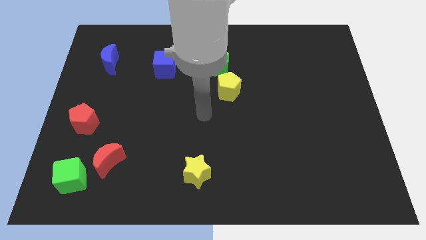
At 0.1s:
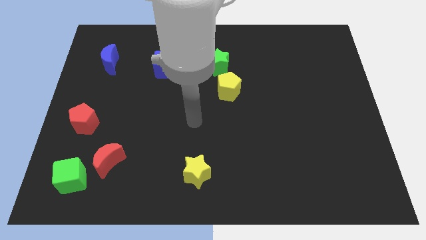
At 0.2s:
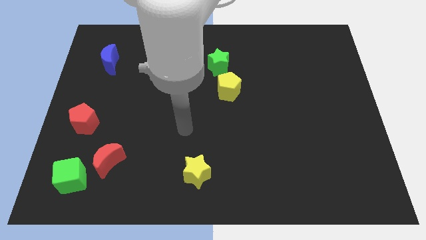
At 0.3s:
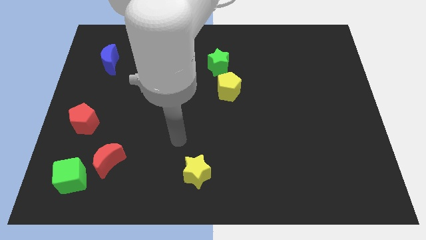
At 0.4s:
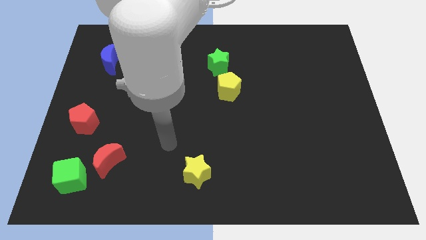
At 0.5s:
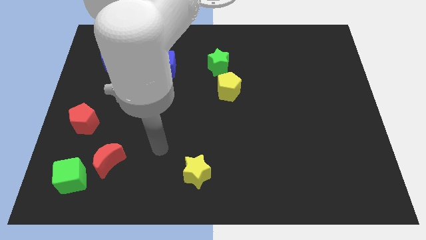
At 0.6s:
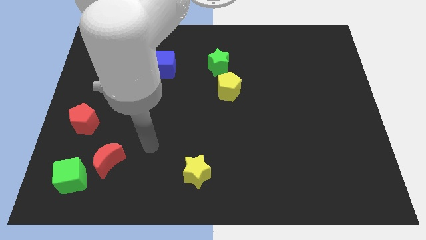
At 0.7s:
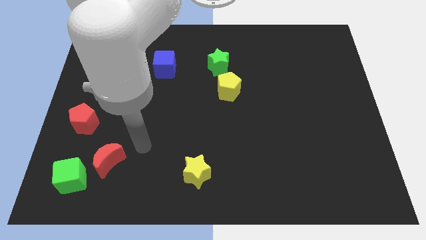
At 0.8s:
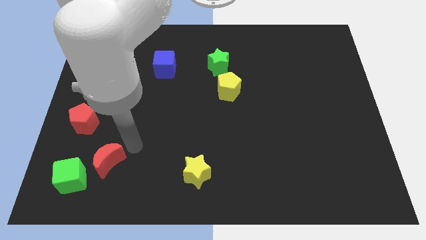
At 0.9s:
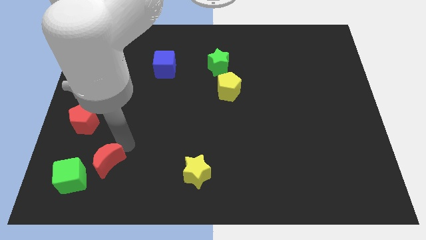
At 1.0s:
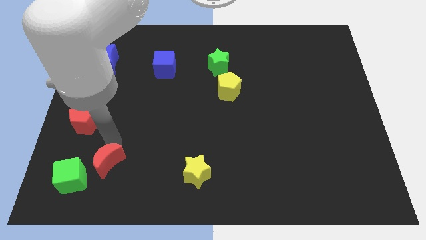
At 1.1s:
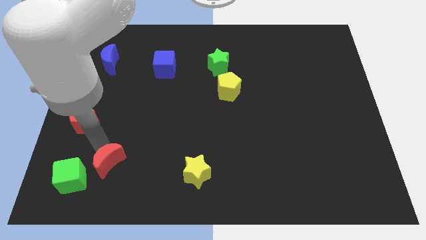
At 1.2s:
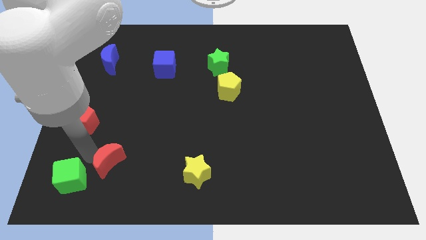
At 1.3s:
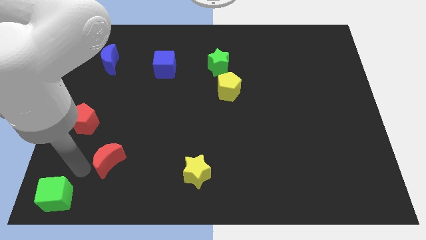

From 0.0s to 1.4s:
move the red moon away from the green cube

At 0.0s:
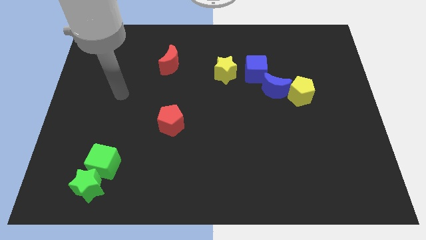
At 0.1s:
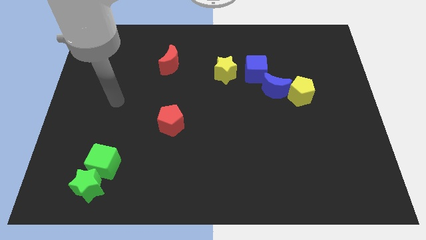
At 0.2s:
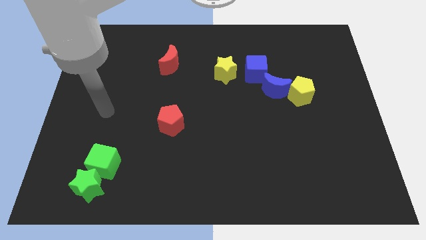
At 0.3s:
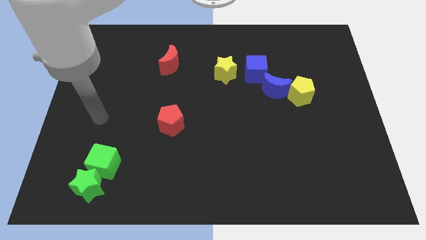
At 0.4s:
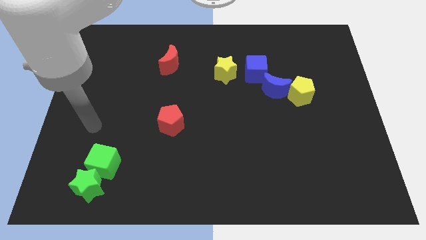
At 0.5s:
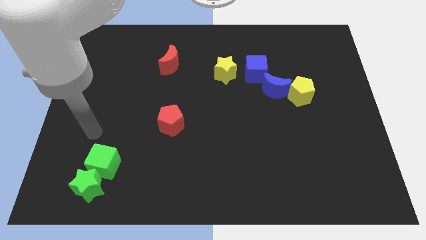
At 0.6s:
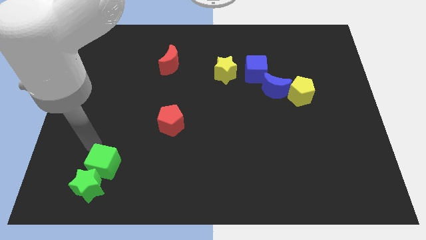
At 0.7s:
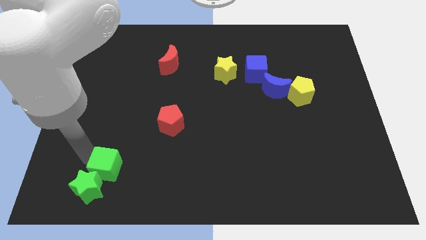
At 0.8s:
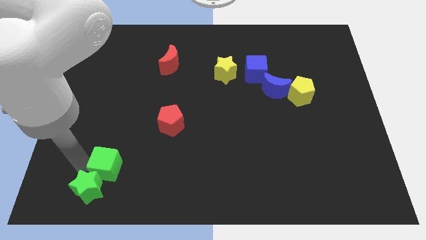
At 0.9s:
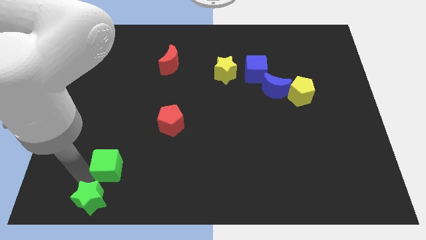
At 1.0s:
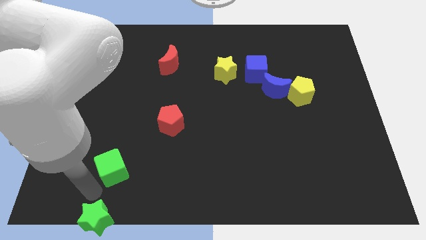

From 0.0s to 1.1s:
pull the green cube apart from the green star

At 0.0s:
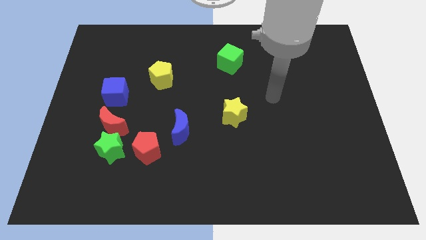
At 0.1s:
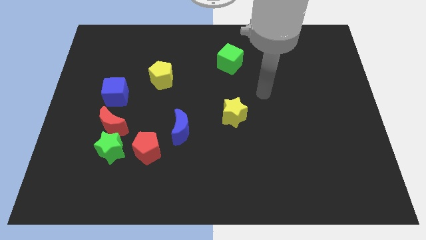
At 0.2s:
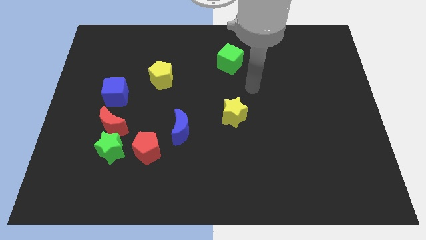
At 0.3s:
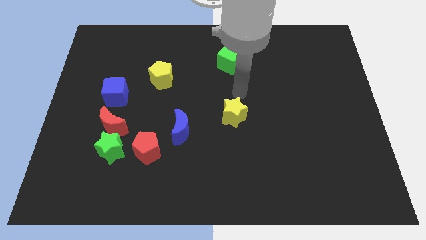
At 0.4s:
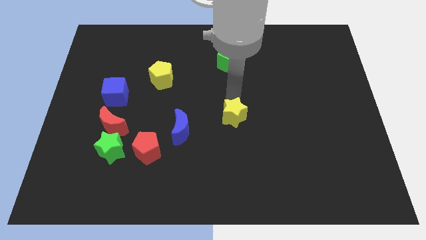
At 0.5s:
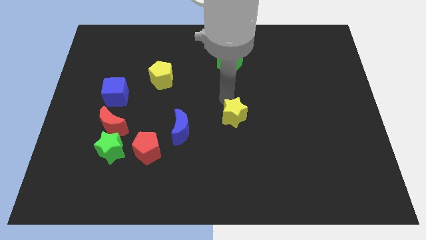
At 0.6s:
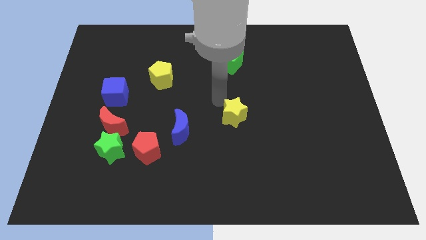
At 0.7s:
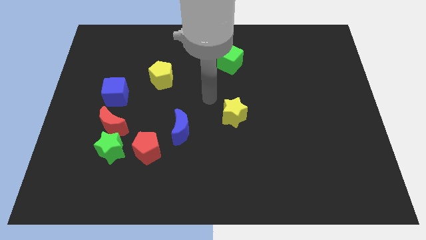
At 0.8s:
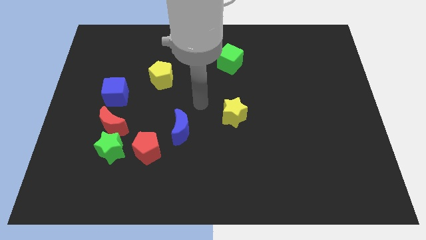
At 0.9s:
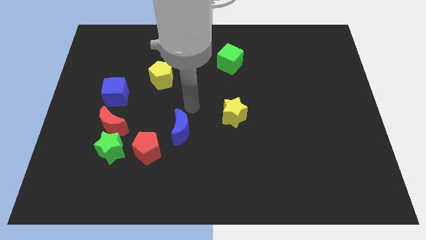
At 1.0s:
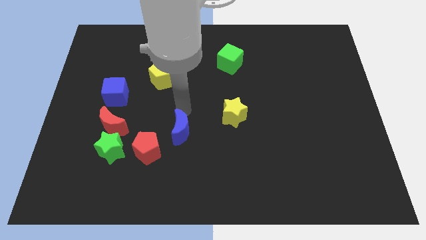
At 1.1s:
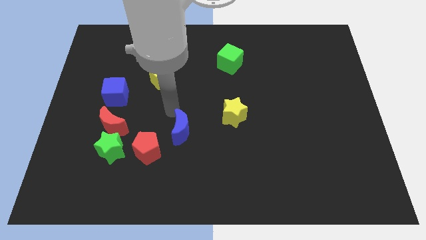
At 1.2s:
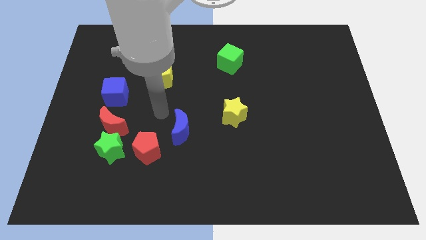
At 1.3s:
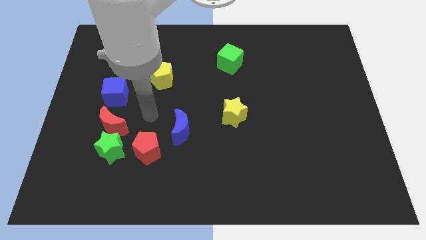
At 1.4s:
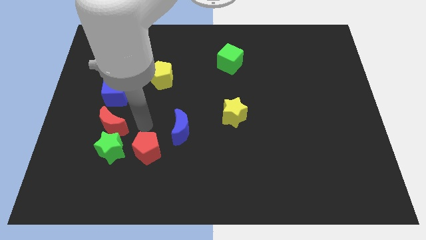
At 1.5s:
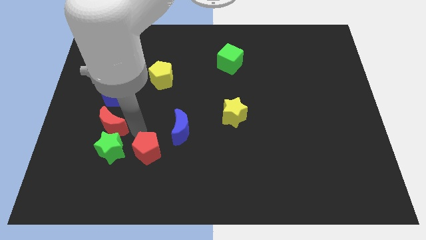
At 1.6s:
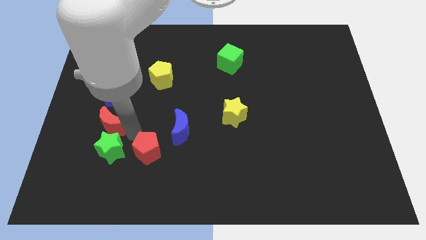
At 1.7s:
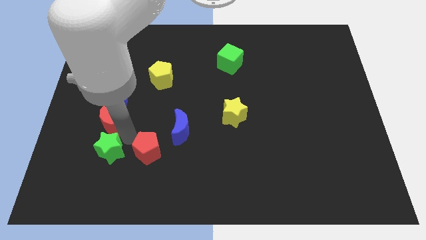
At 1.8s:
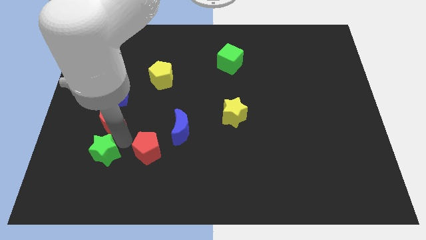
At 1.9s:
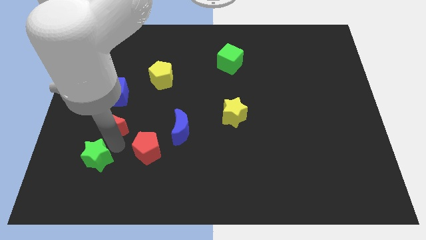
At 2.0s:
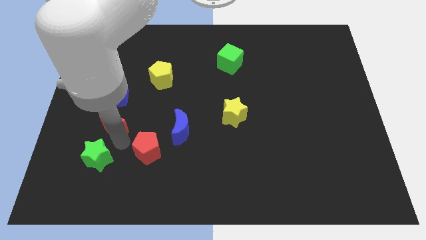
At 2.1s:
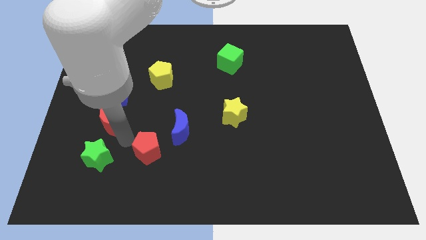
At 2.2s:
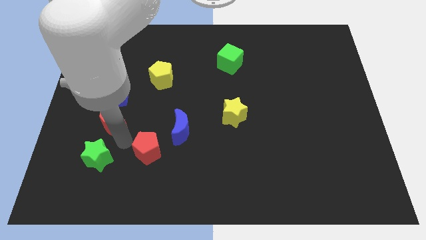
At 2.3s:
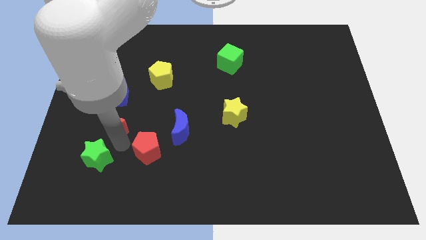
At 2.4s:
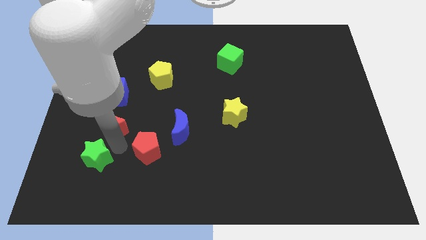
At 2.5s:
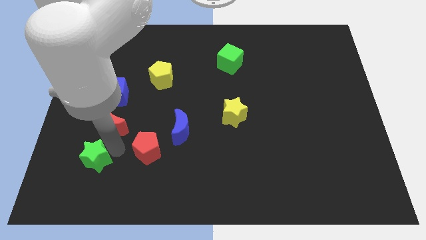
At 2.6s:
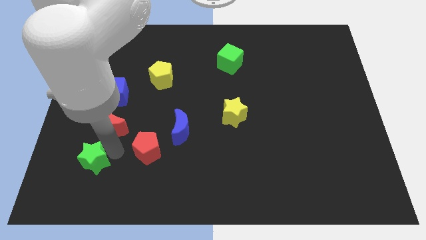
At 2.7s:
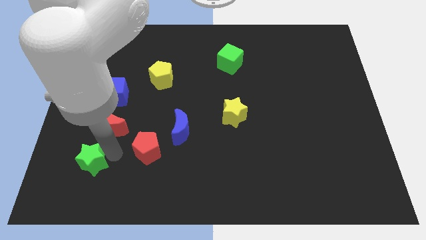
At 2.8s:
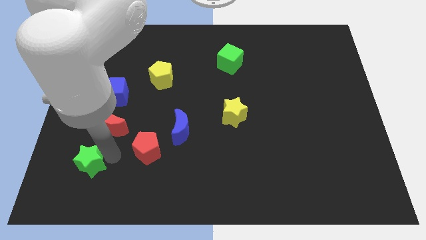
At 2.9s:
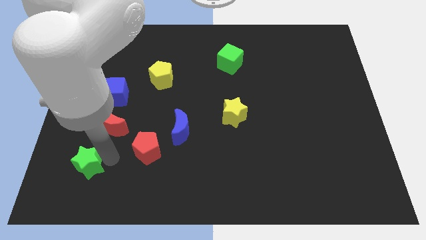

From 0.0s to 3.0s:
pull the green star apart from the red moon and red pentagon

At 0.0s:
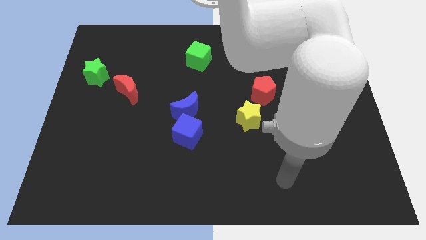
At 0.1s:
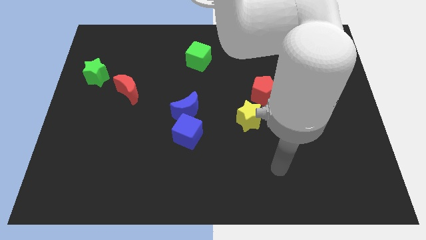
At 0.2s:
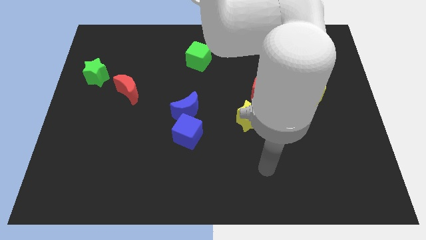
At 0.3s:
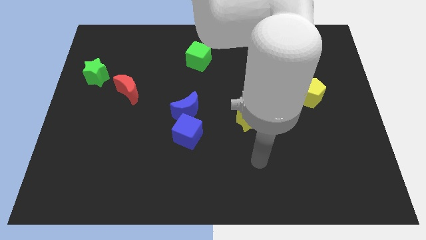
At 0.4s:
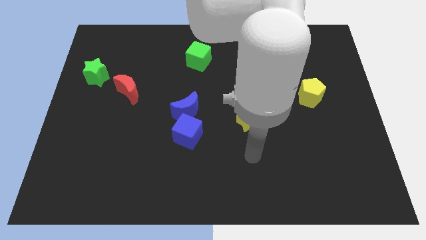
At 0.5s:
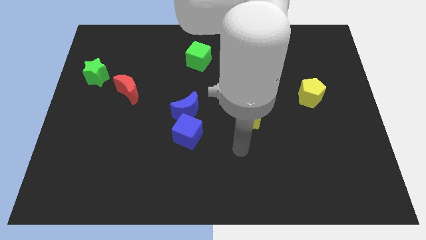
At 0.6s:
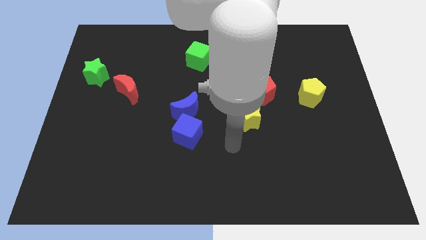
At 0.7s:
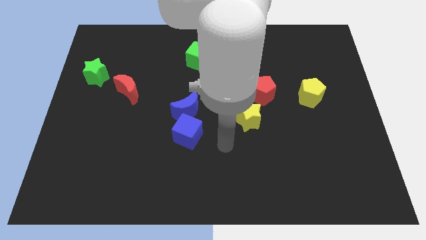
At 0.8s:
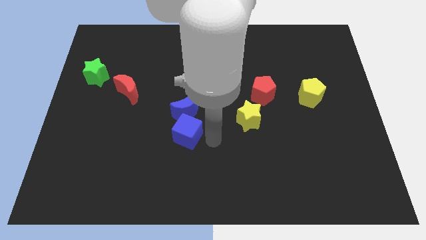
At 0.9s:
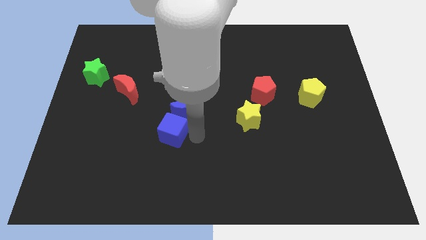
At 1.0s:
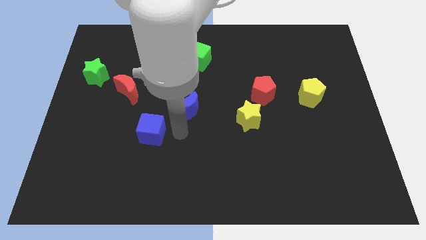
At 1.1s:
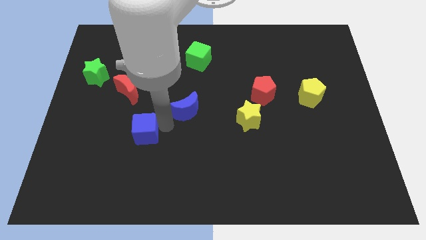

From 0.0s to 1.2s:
move the blue moon away from the blue cube

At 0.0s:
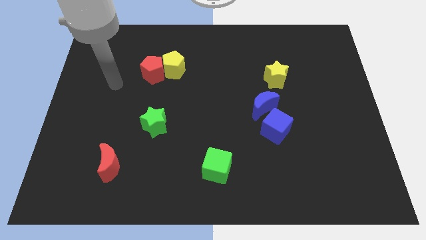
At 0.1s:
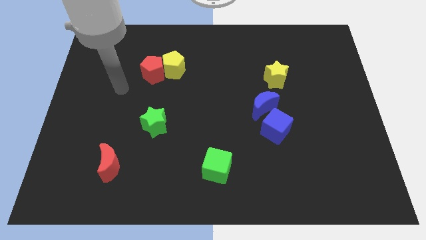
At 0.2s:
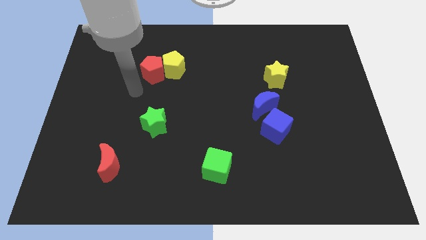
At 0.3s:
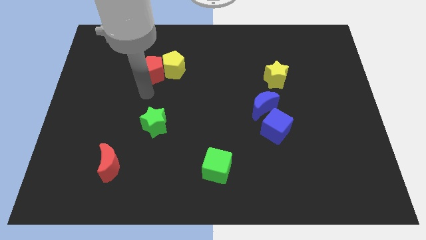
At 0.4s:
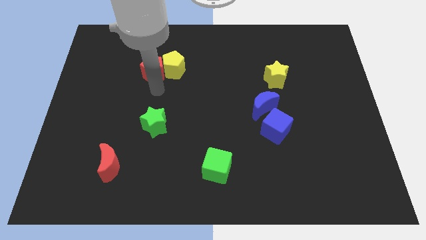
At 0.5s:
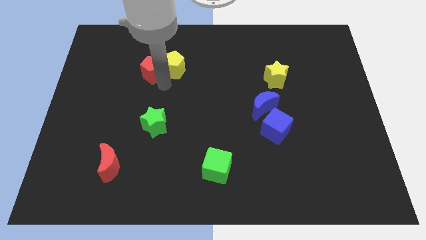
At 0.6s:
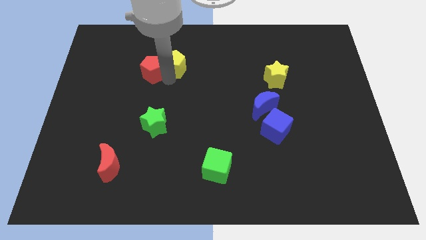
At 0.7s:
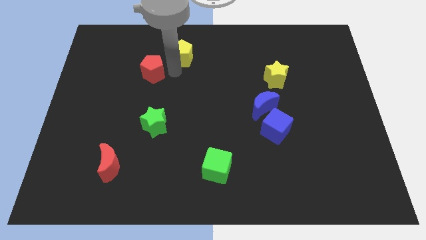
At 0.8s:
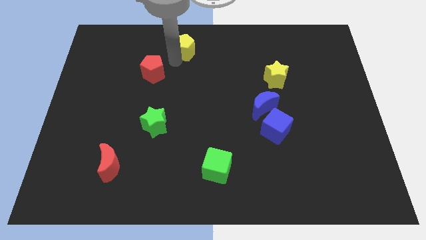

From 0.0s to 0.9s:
pull the red pentagon apart from the yellow pentagon

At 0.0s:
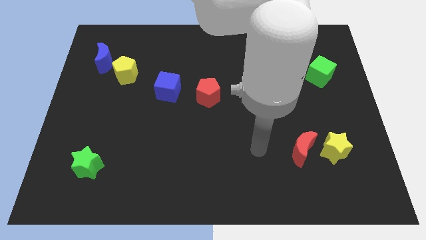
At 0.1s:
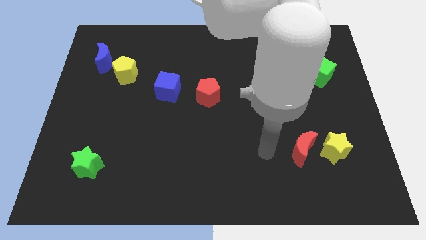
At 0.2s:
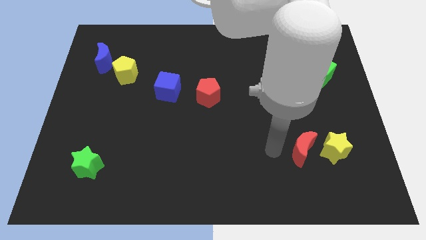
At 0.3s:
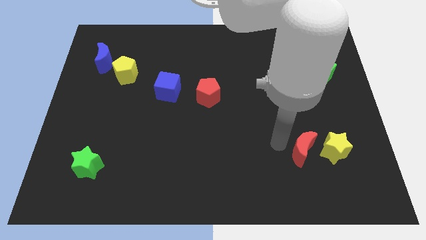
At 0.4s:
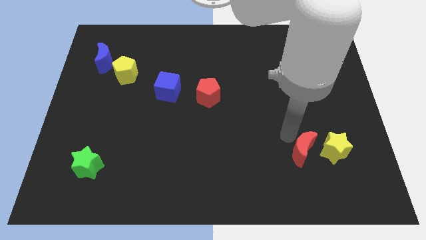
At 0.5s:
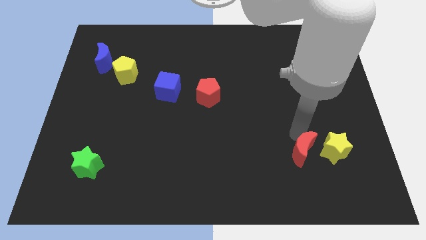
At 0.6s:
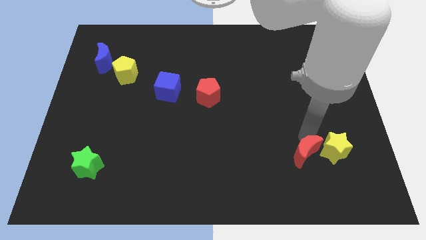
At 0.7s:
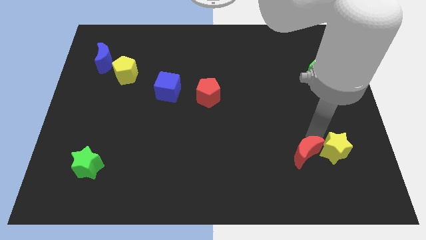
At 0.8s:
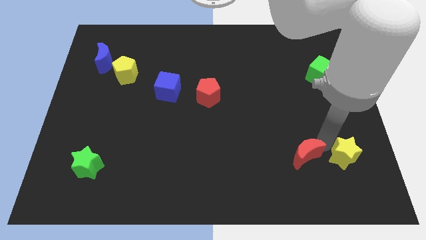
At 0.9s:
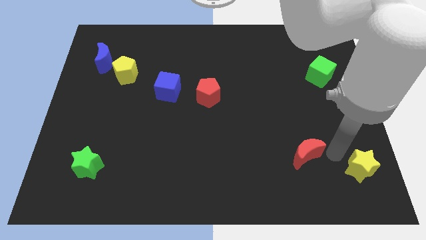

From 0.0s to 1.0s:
move the red moon away from the yellow star

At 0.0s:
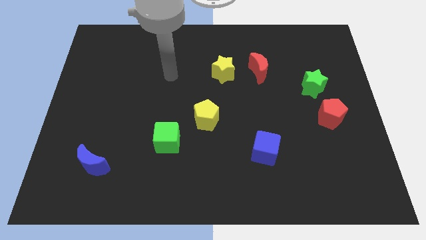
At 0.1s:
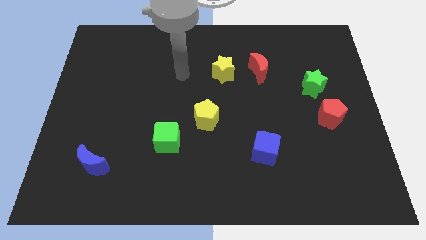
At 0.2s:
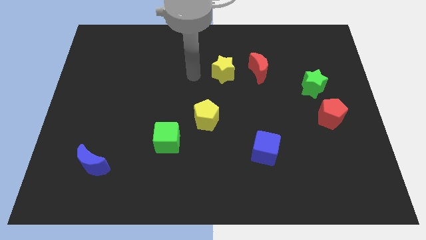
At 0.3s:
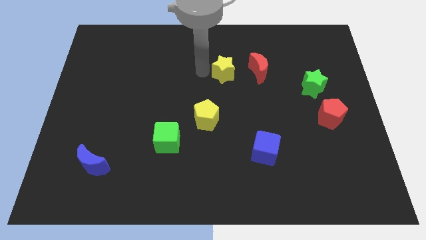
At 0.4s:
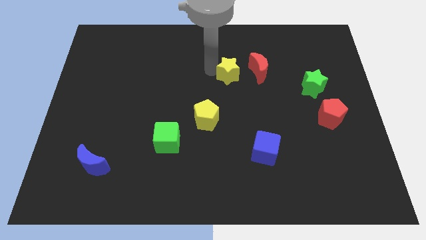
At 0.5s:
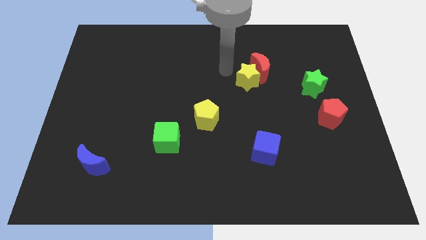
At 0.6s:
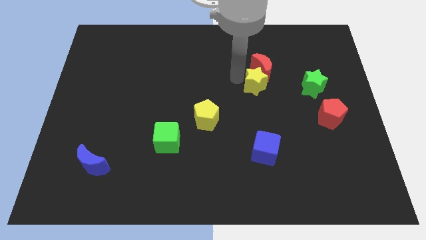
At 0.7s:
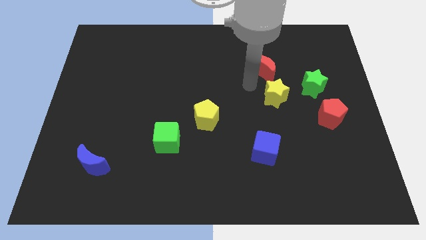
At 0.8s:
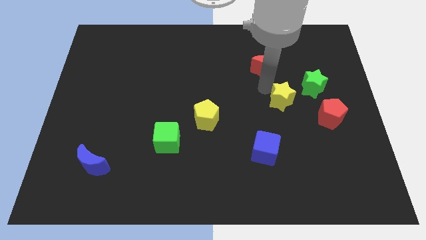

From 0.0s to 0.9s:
separate the red moon from the yellow star
